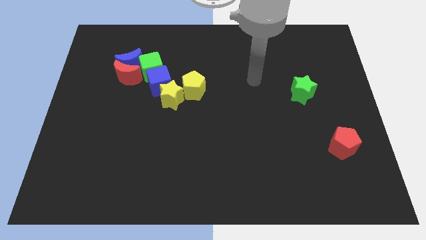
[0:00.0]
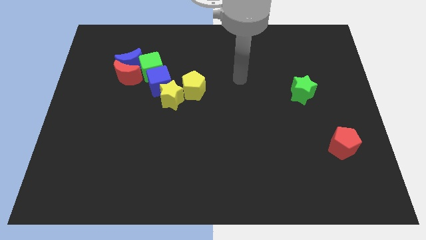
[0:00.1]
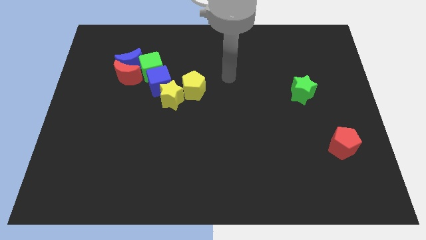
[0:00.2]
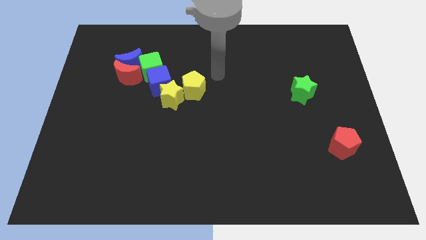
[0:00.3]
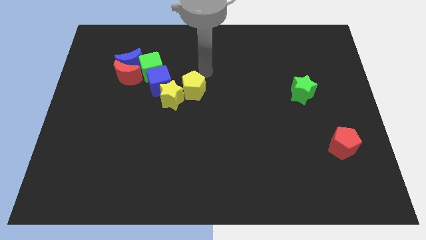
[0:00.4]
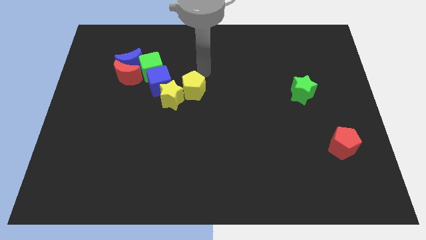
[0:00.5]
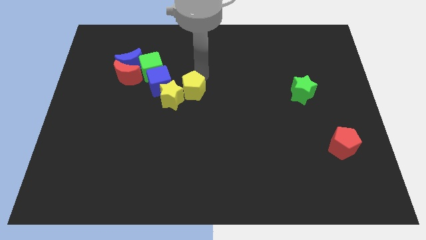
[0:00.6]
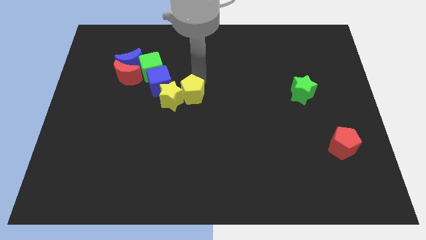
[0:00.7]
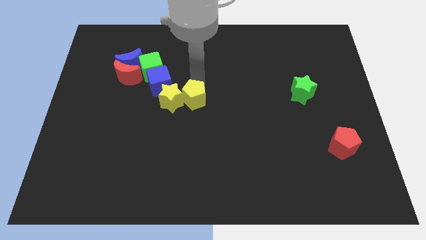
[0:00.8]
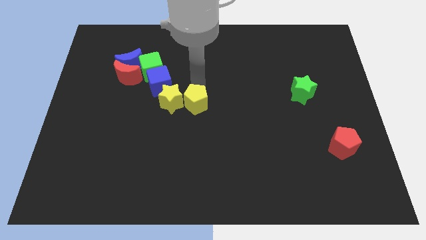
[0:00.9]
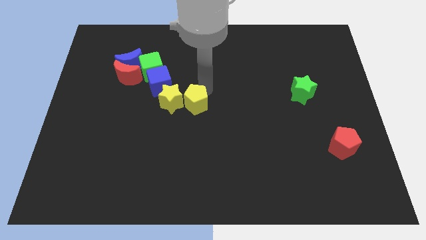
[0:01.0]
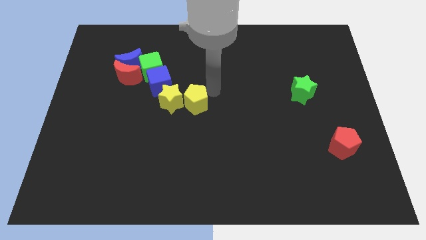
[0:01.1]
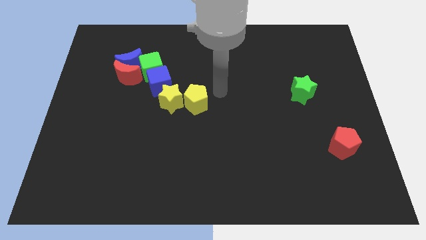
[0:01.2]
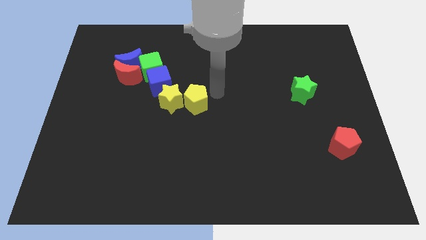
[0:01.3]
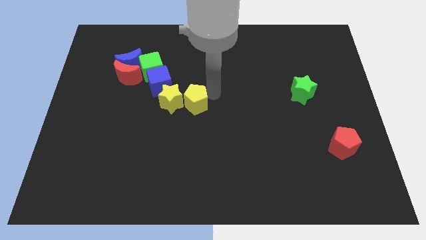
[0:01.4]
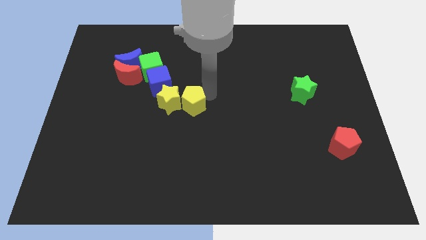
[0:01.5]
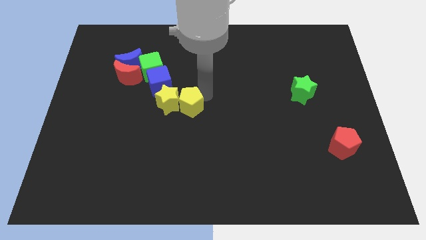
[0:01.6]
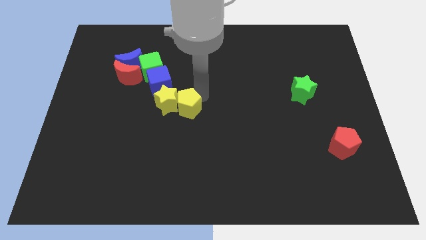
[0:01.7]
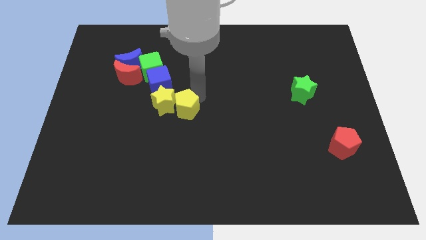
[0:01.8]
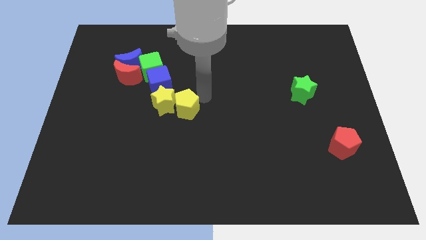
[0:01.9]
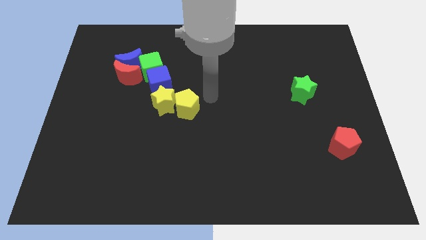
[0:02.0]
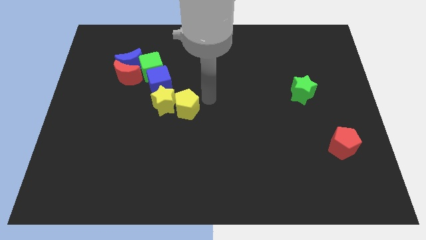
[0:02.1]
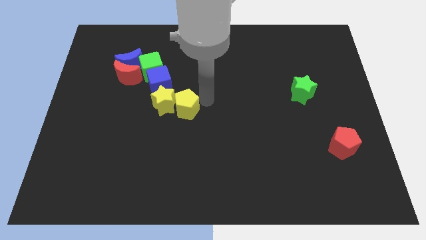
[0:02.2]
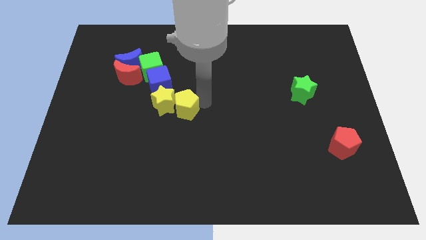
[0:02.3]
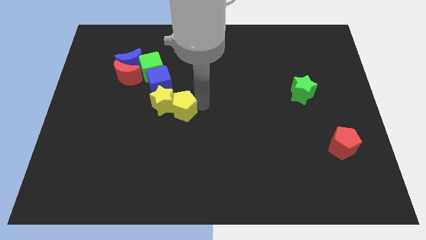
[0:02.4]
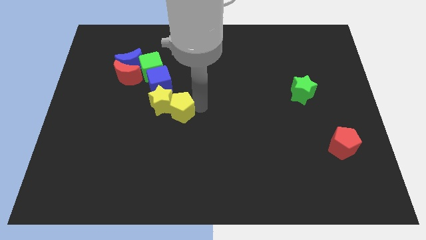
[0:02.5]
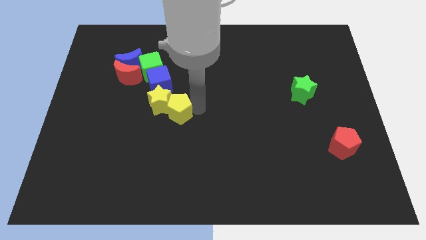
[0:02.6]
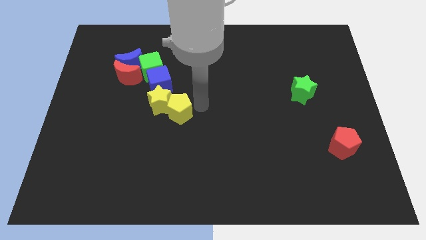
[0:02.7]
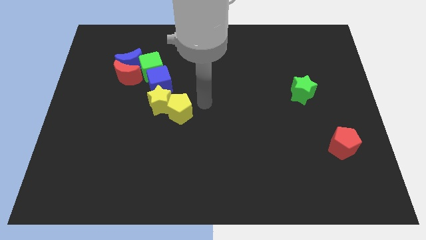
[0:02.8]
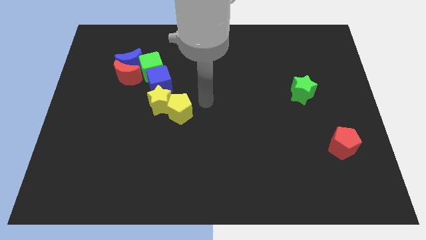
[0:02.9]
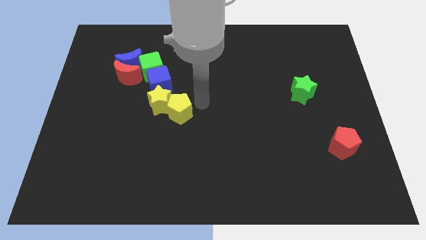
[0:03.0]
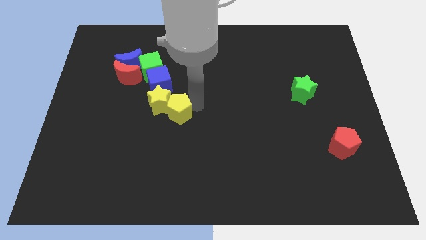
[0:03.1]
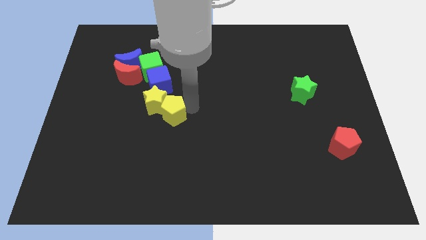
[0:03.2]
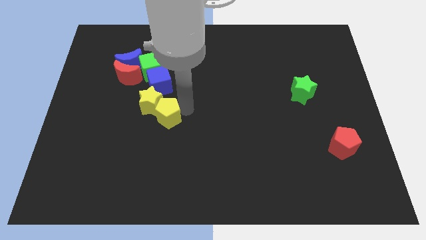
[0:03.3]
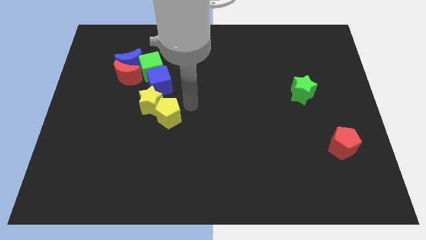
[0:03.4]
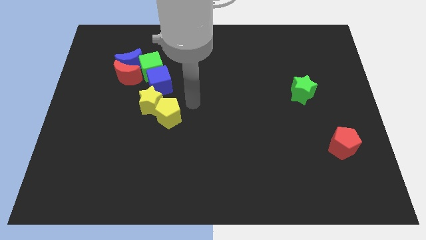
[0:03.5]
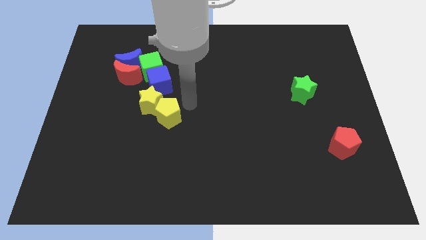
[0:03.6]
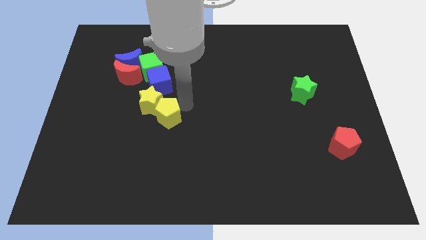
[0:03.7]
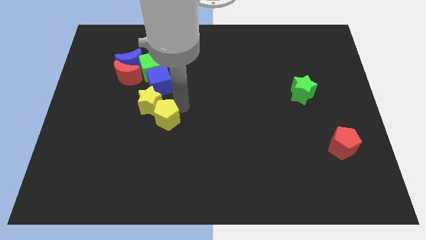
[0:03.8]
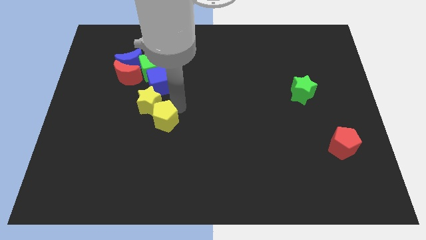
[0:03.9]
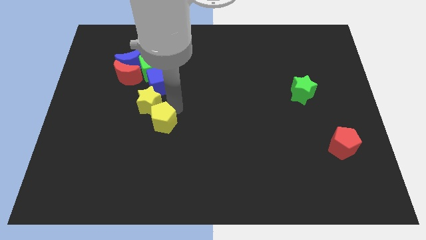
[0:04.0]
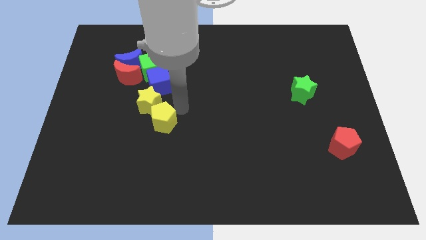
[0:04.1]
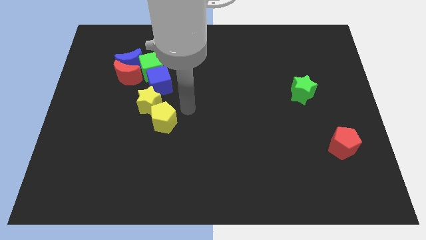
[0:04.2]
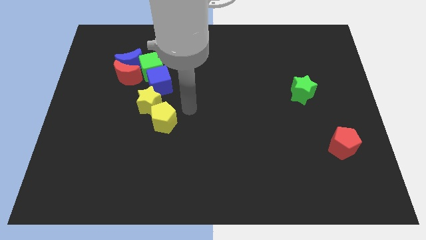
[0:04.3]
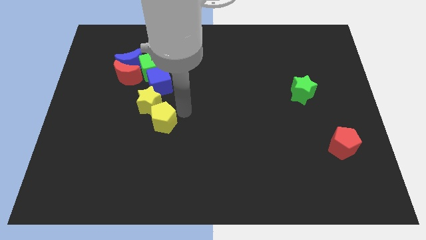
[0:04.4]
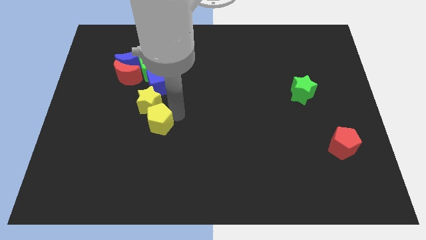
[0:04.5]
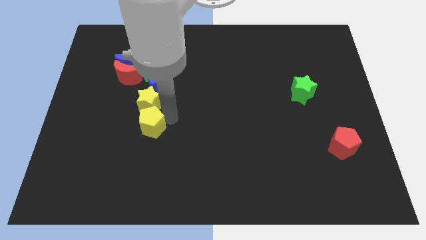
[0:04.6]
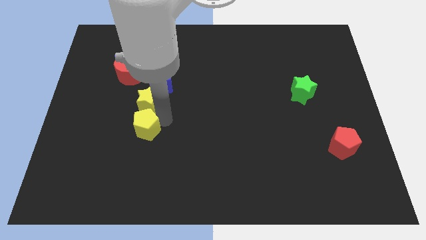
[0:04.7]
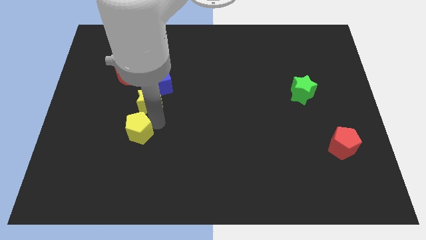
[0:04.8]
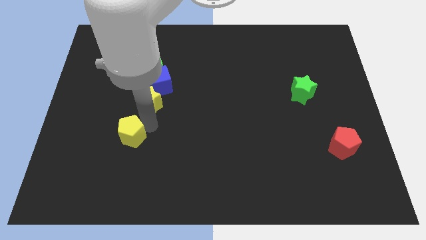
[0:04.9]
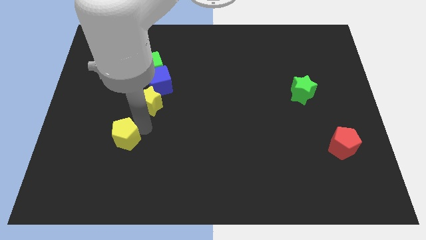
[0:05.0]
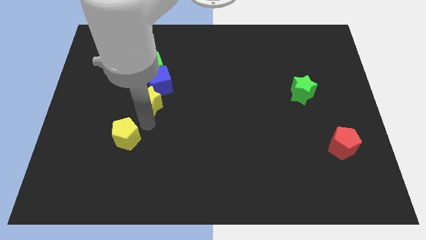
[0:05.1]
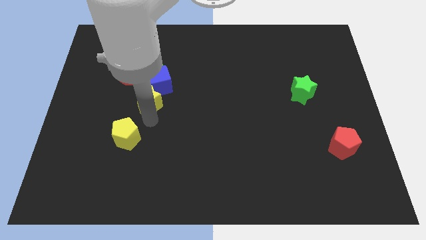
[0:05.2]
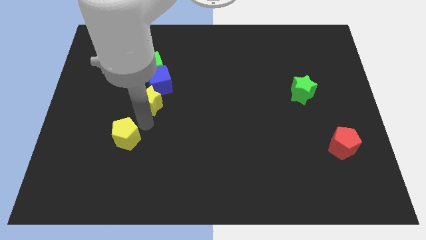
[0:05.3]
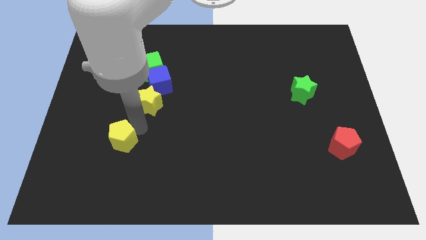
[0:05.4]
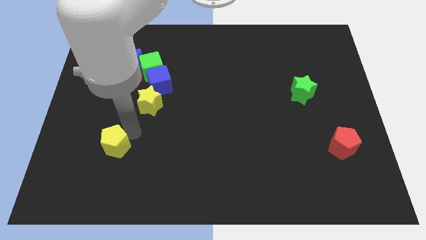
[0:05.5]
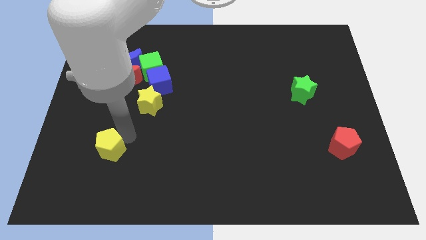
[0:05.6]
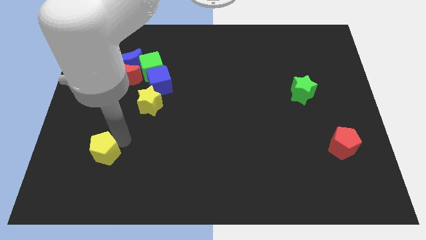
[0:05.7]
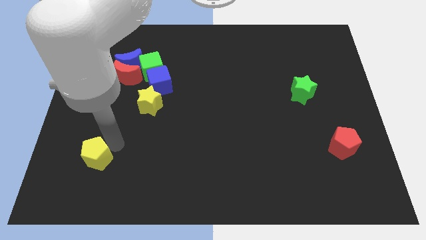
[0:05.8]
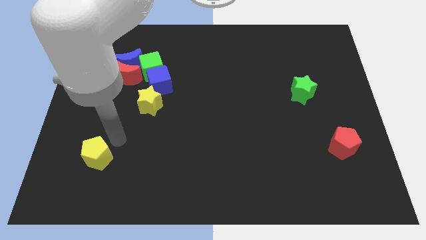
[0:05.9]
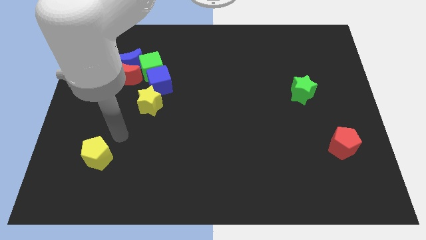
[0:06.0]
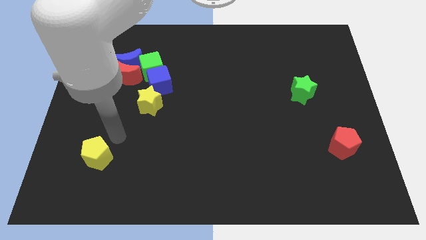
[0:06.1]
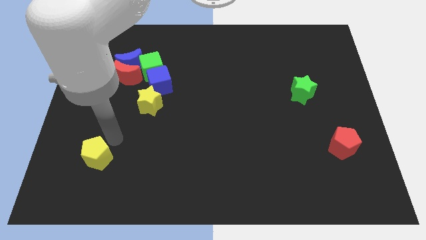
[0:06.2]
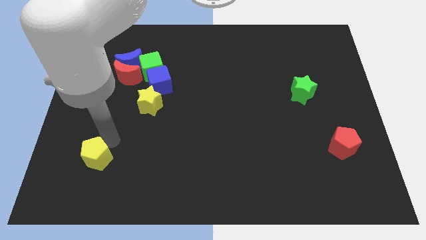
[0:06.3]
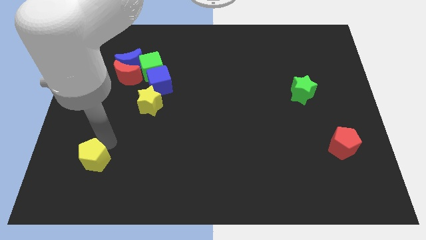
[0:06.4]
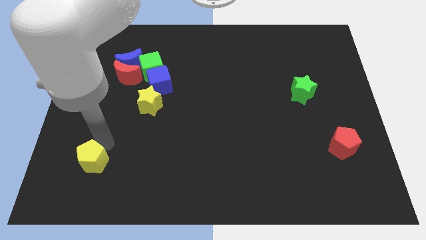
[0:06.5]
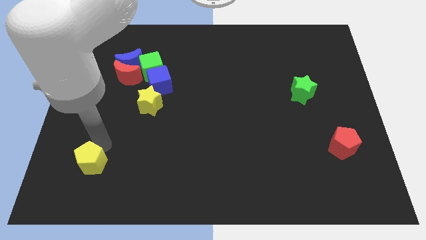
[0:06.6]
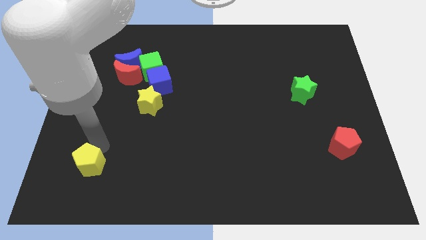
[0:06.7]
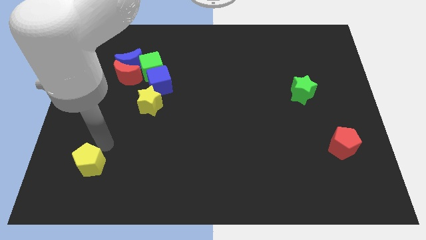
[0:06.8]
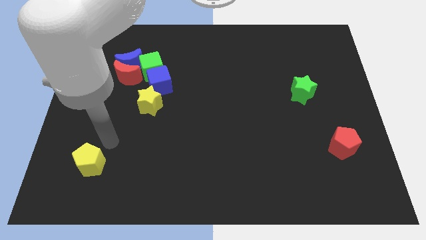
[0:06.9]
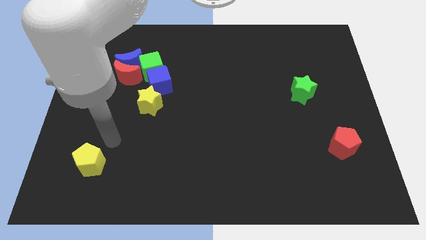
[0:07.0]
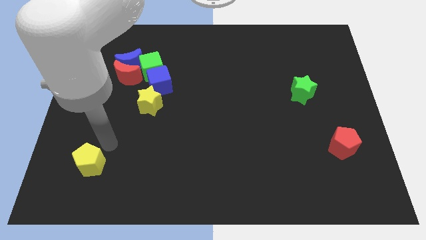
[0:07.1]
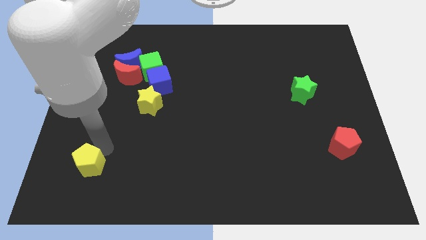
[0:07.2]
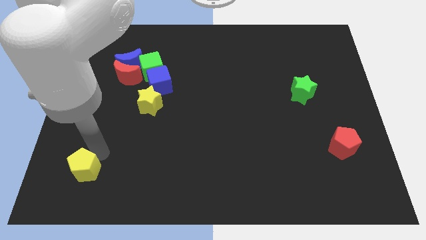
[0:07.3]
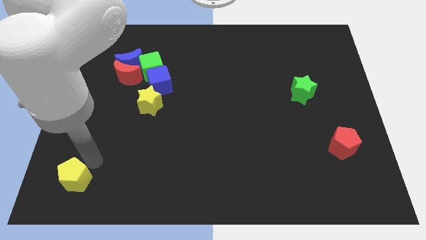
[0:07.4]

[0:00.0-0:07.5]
push the yellow pentagon to the lower left corner
